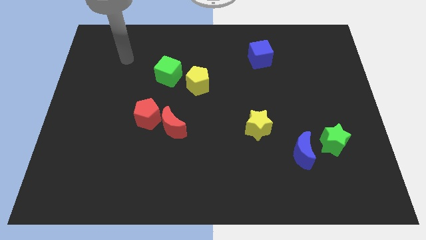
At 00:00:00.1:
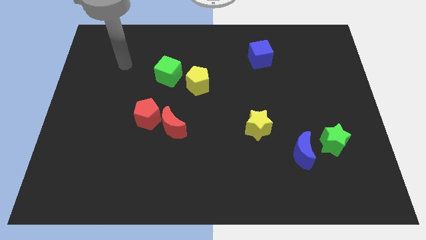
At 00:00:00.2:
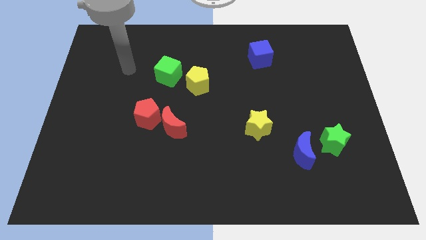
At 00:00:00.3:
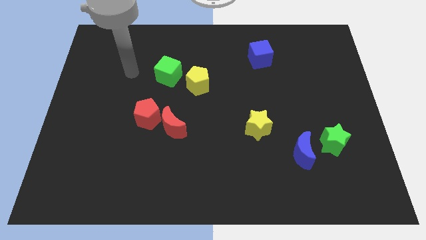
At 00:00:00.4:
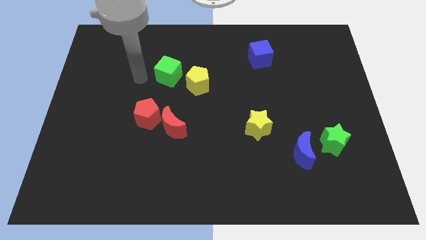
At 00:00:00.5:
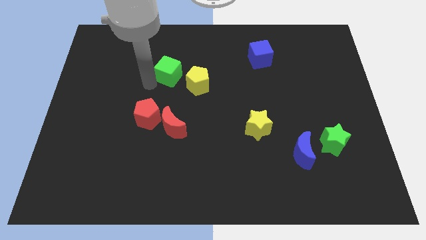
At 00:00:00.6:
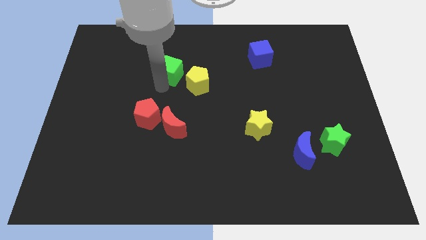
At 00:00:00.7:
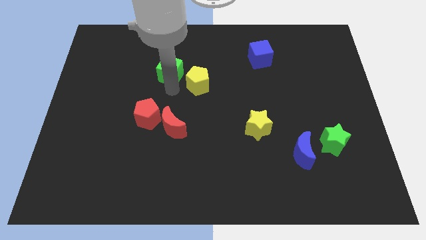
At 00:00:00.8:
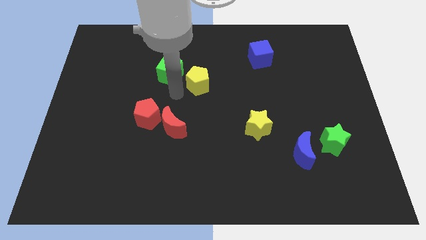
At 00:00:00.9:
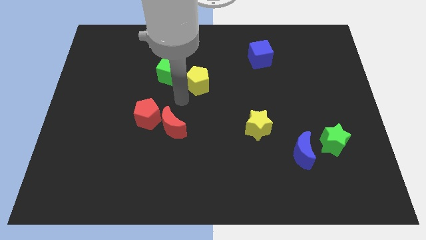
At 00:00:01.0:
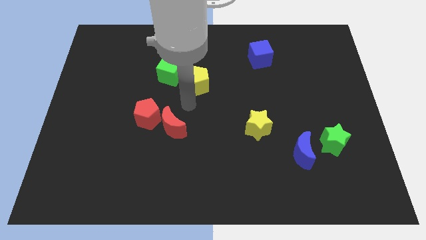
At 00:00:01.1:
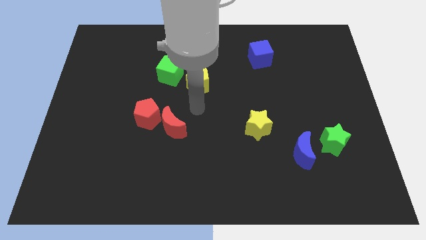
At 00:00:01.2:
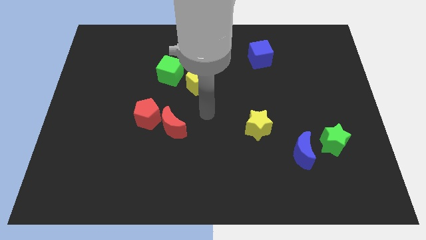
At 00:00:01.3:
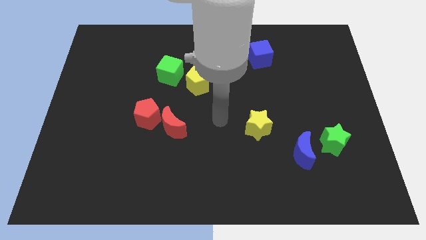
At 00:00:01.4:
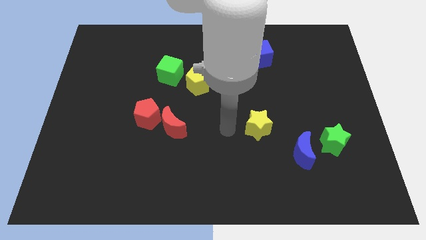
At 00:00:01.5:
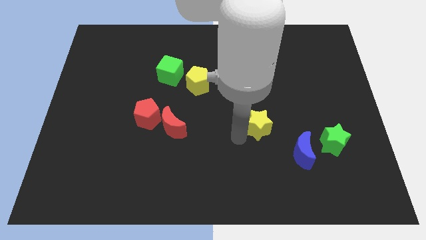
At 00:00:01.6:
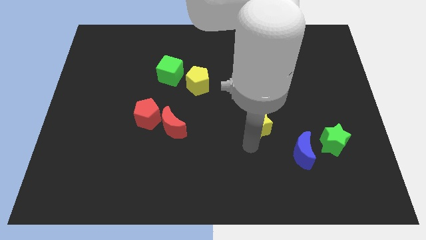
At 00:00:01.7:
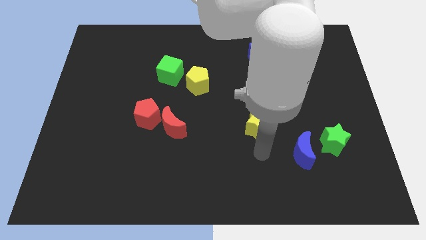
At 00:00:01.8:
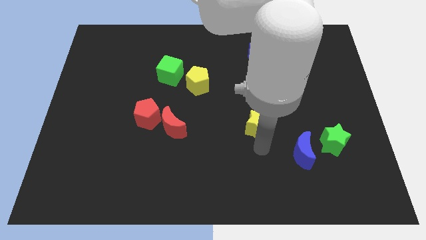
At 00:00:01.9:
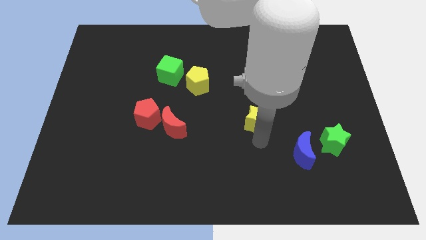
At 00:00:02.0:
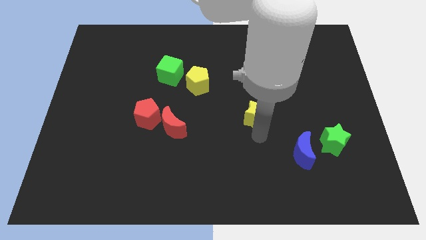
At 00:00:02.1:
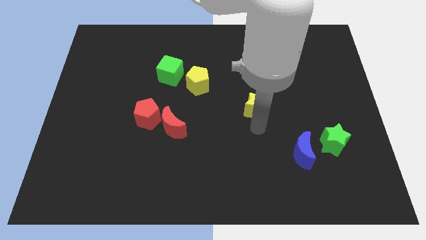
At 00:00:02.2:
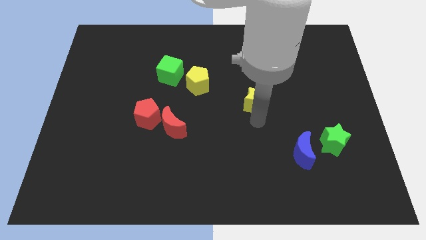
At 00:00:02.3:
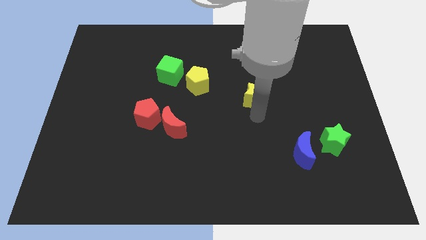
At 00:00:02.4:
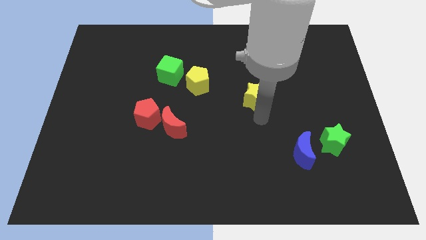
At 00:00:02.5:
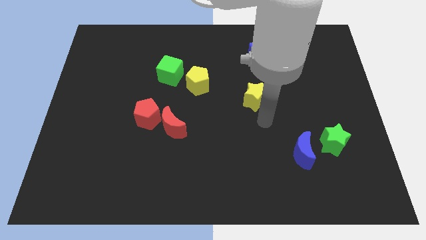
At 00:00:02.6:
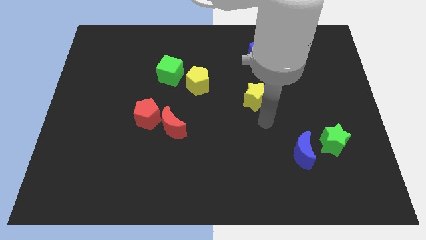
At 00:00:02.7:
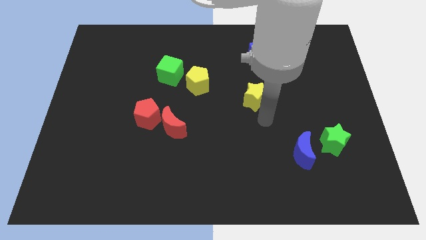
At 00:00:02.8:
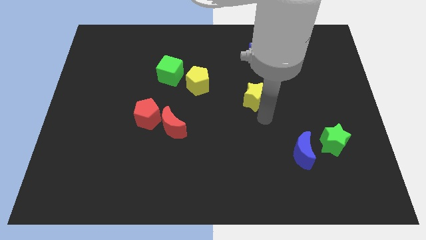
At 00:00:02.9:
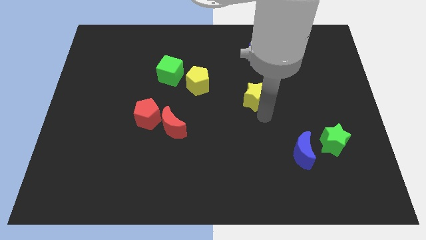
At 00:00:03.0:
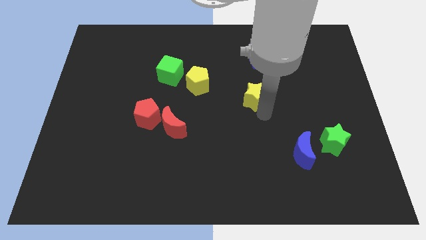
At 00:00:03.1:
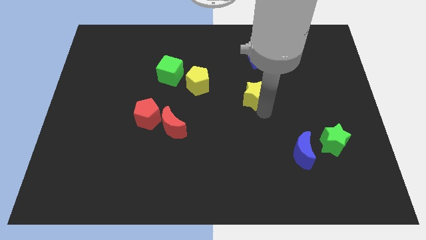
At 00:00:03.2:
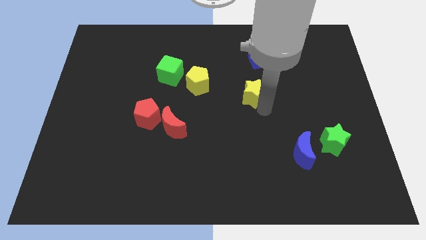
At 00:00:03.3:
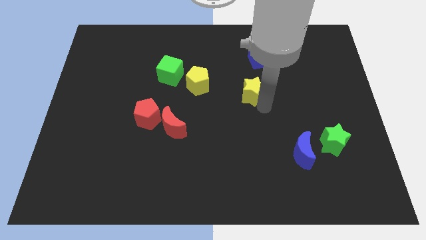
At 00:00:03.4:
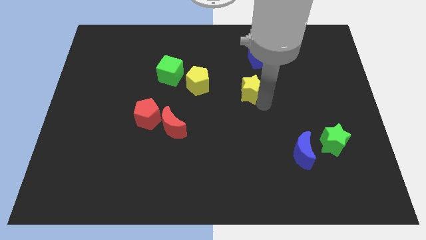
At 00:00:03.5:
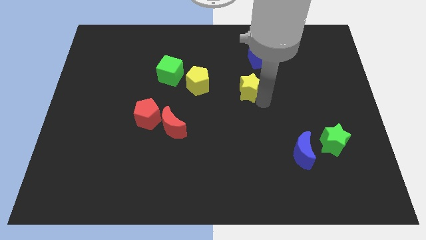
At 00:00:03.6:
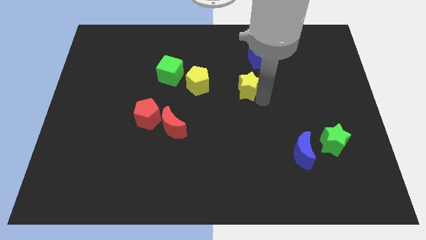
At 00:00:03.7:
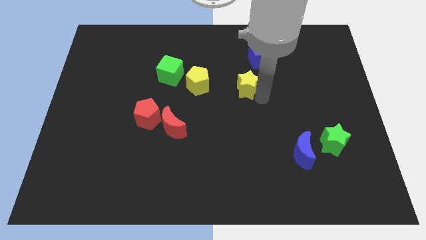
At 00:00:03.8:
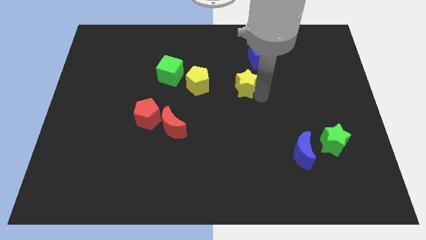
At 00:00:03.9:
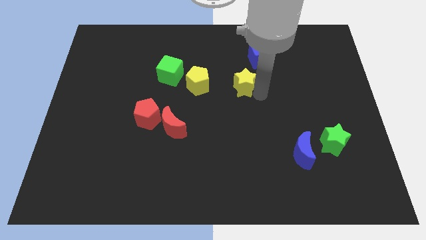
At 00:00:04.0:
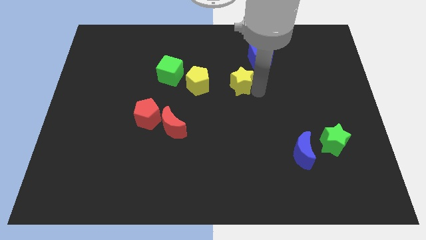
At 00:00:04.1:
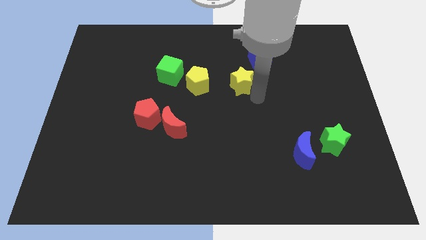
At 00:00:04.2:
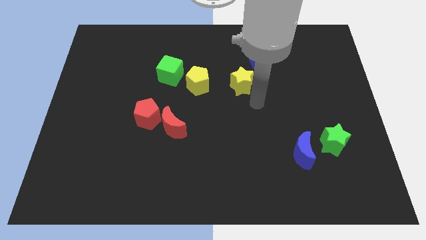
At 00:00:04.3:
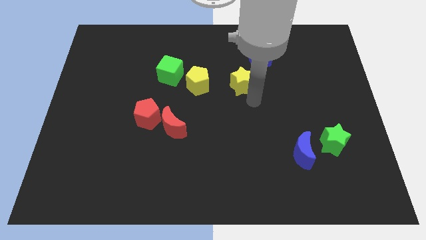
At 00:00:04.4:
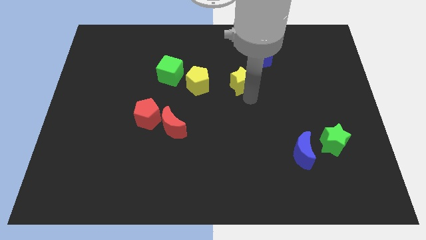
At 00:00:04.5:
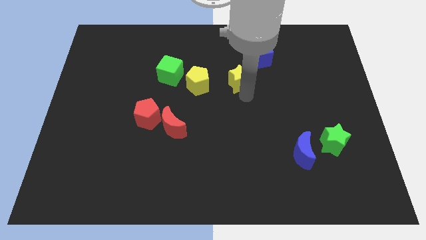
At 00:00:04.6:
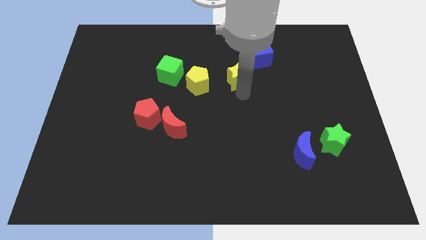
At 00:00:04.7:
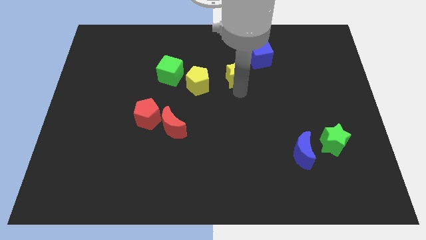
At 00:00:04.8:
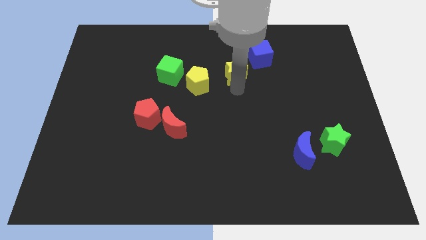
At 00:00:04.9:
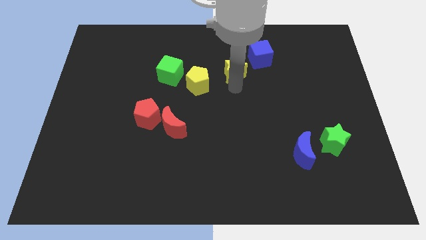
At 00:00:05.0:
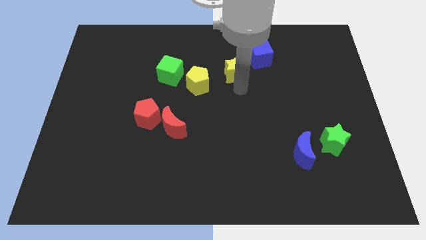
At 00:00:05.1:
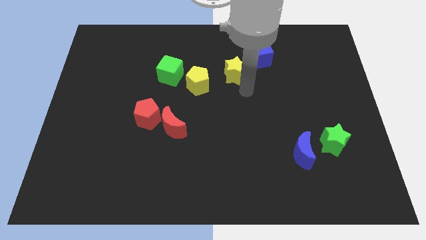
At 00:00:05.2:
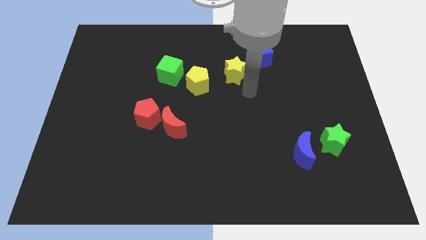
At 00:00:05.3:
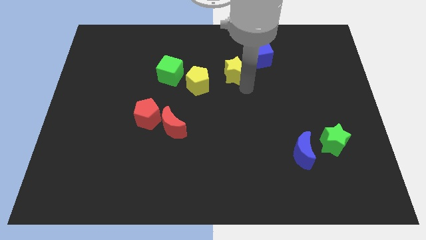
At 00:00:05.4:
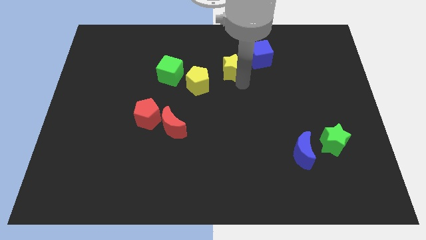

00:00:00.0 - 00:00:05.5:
slide the yellow star to the left of the blue cube

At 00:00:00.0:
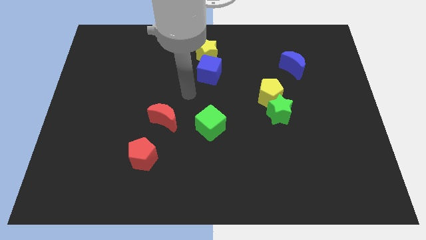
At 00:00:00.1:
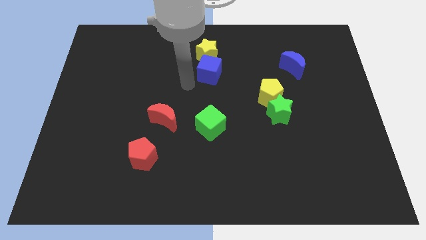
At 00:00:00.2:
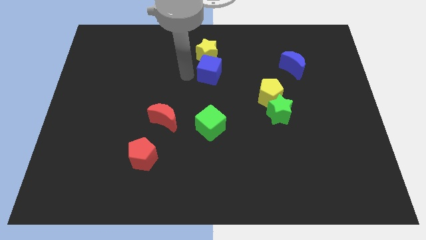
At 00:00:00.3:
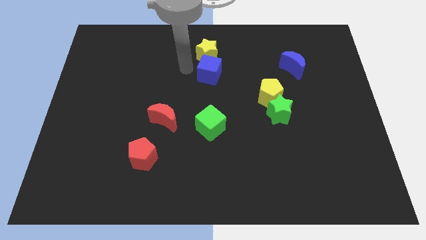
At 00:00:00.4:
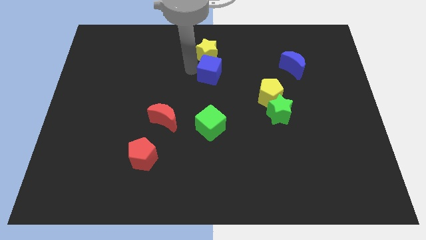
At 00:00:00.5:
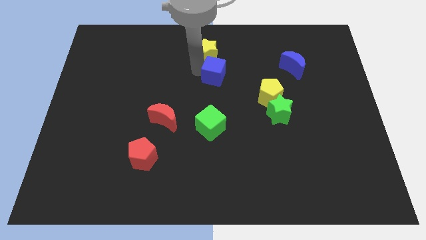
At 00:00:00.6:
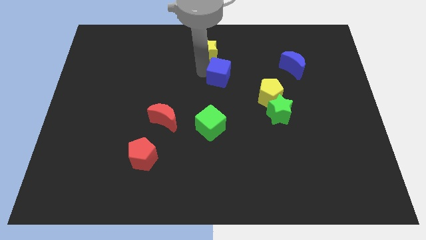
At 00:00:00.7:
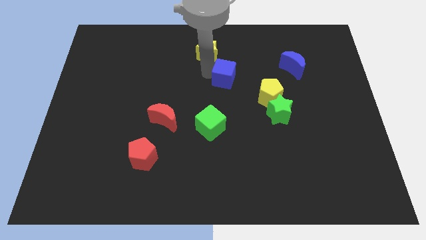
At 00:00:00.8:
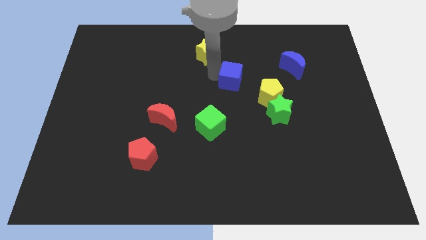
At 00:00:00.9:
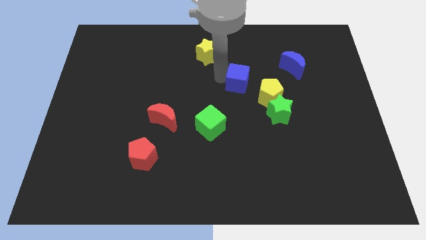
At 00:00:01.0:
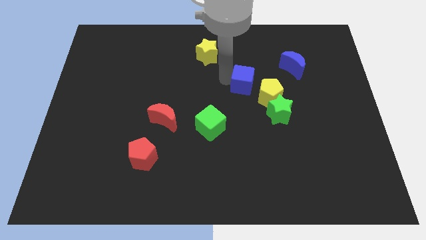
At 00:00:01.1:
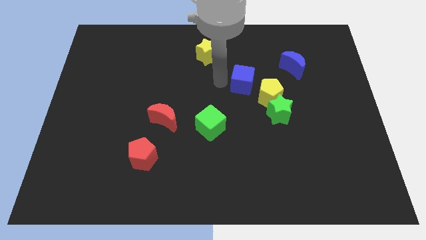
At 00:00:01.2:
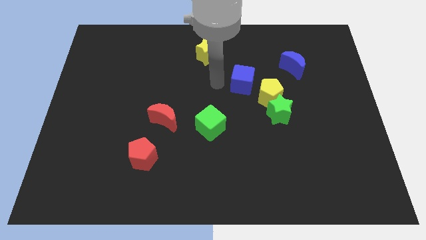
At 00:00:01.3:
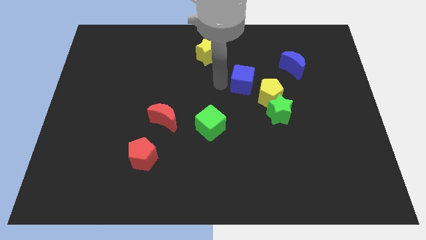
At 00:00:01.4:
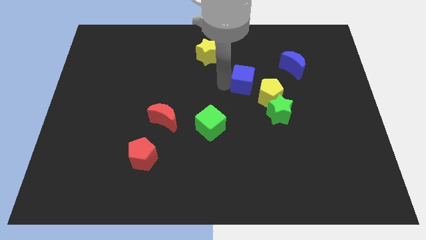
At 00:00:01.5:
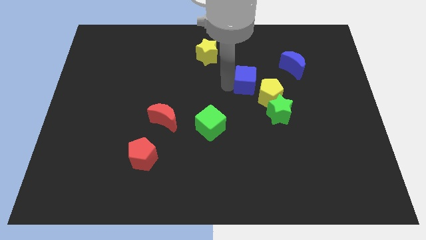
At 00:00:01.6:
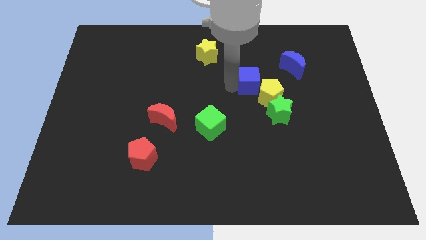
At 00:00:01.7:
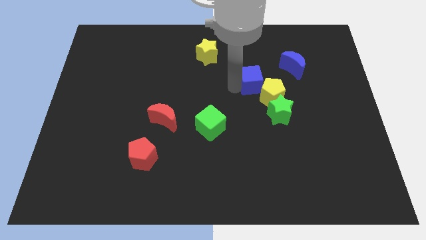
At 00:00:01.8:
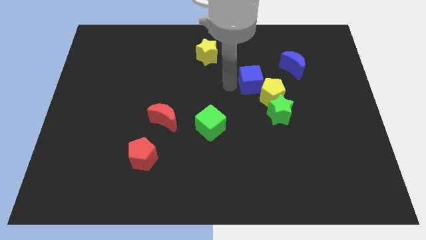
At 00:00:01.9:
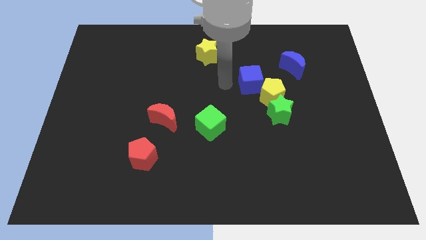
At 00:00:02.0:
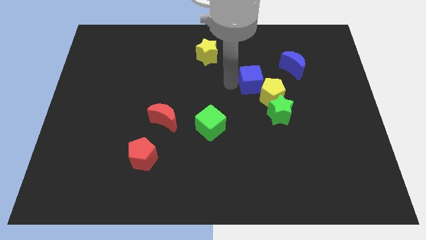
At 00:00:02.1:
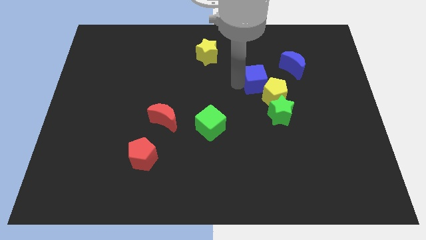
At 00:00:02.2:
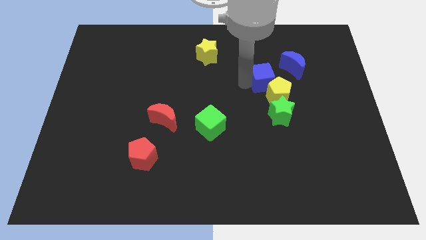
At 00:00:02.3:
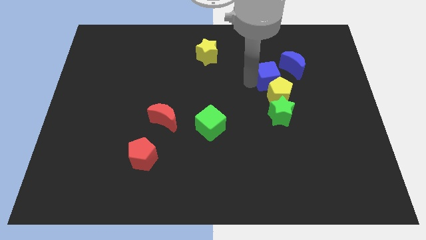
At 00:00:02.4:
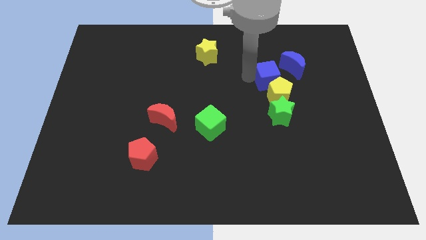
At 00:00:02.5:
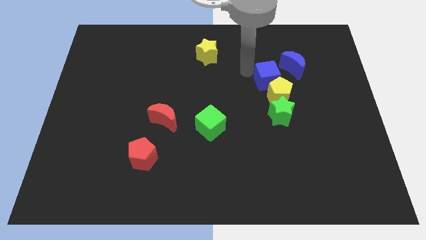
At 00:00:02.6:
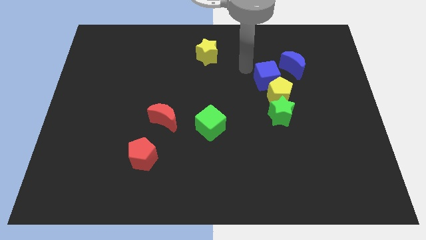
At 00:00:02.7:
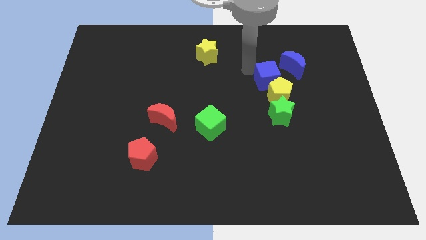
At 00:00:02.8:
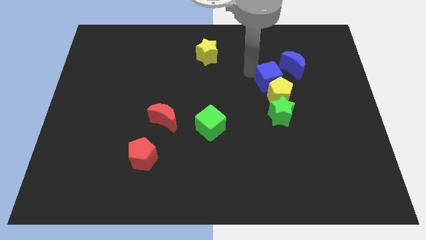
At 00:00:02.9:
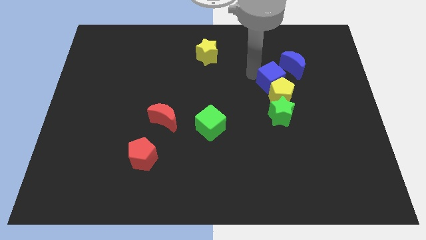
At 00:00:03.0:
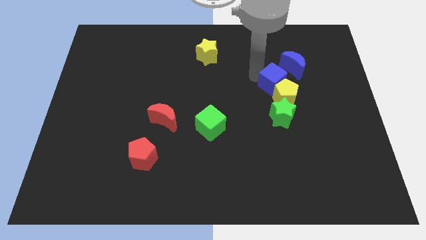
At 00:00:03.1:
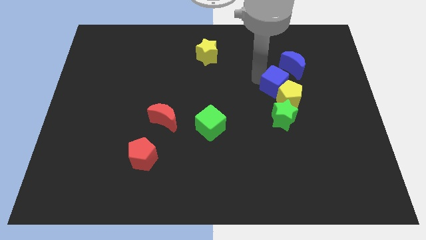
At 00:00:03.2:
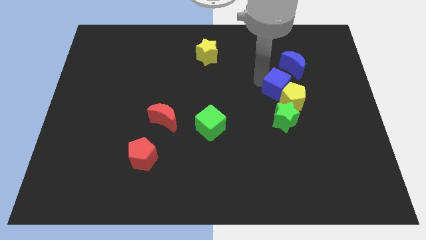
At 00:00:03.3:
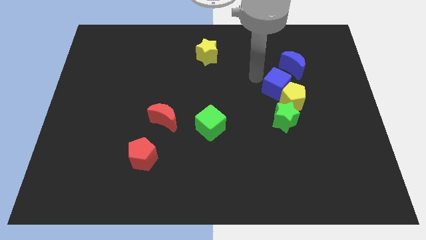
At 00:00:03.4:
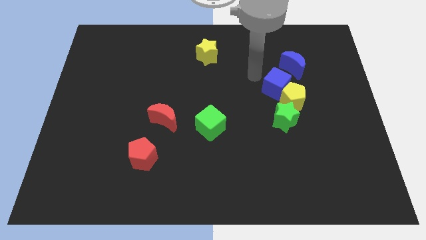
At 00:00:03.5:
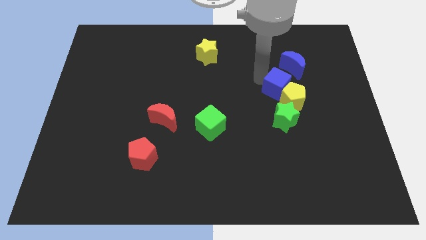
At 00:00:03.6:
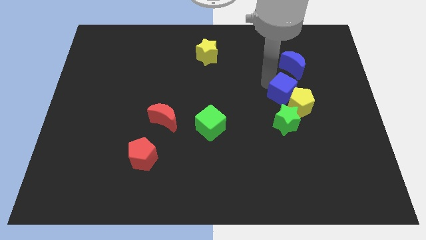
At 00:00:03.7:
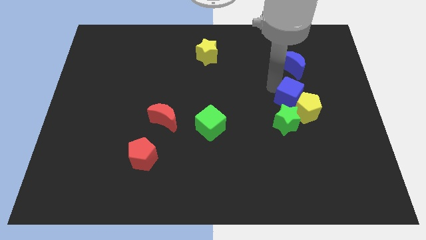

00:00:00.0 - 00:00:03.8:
move the blue cube to the top right side of the green star
